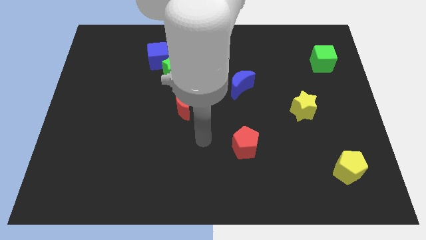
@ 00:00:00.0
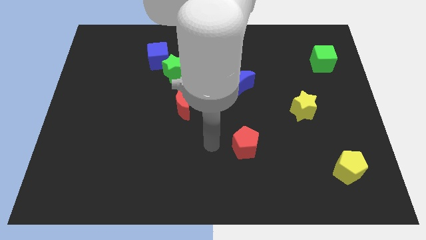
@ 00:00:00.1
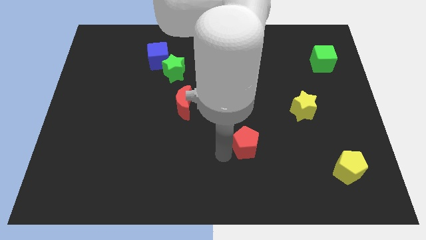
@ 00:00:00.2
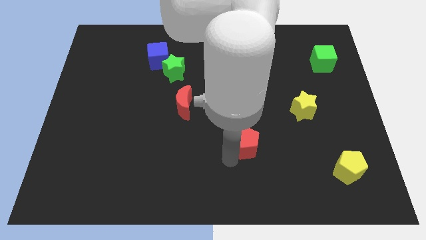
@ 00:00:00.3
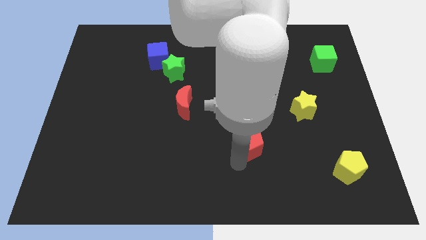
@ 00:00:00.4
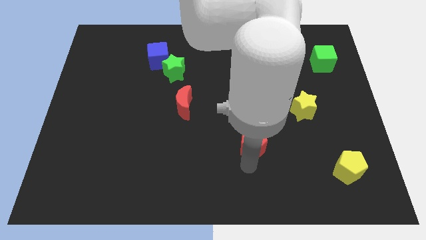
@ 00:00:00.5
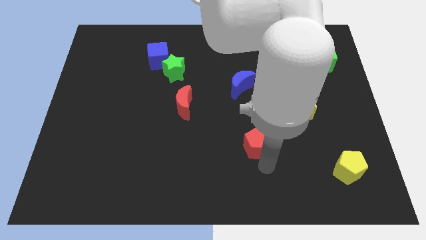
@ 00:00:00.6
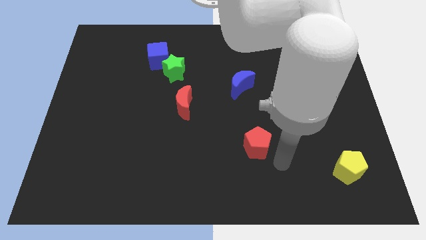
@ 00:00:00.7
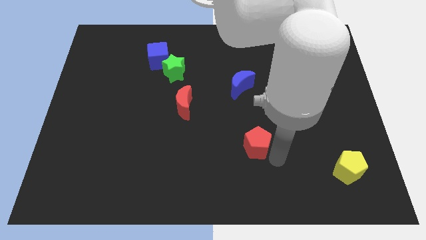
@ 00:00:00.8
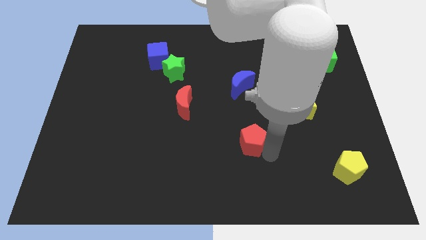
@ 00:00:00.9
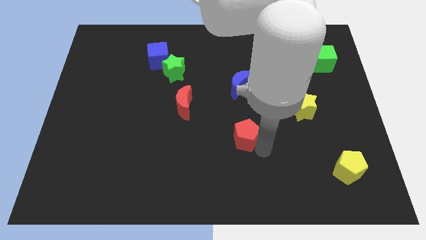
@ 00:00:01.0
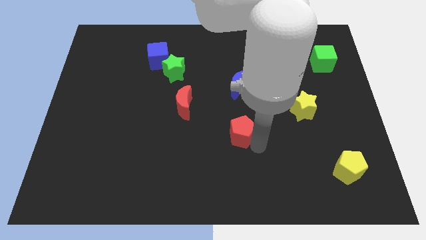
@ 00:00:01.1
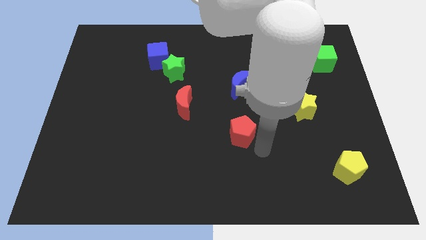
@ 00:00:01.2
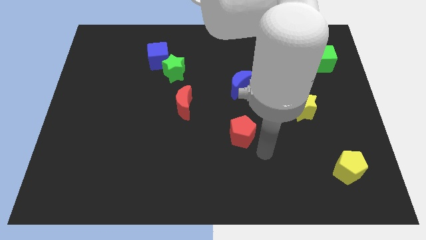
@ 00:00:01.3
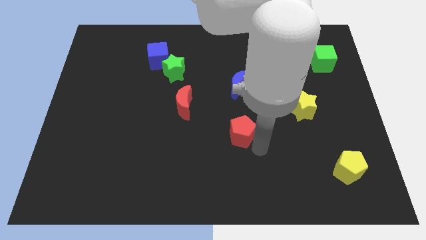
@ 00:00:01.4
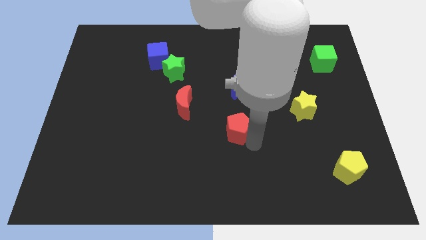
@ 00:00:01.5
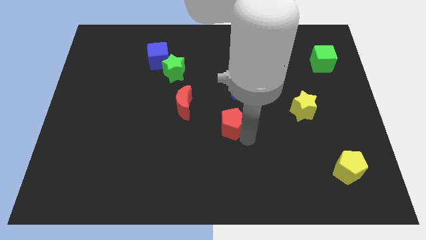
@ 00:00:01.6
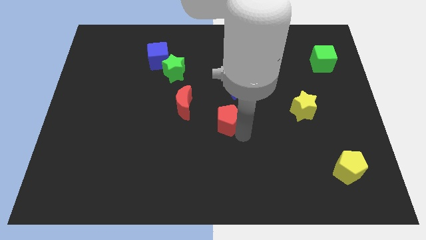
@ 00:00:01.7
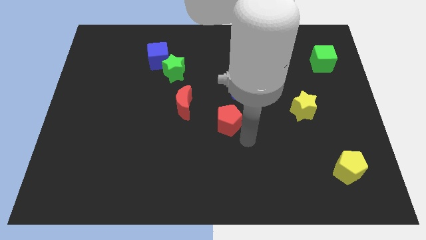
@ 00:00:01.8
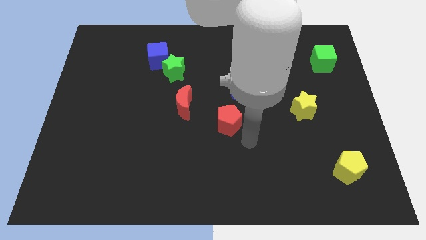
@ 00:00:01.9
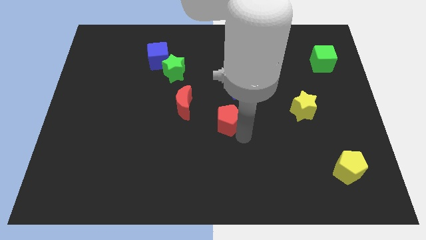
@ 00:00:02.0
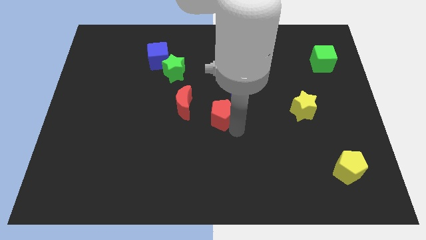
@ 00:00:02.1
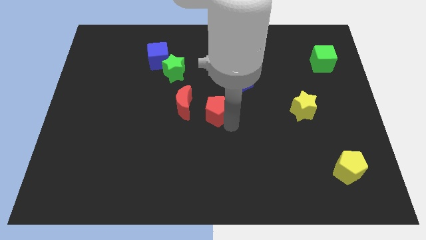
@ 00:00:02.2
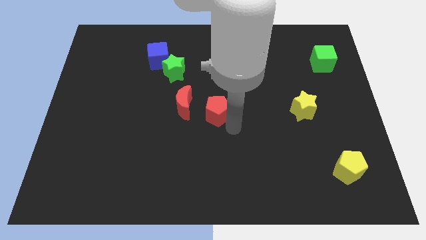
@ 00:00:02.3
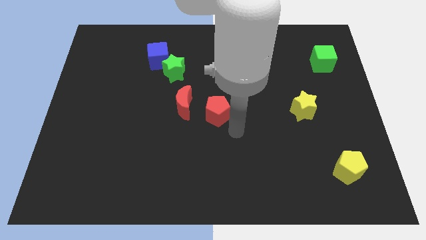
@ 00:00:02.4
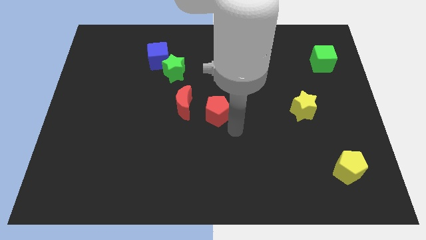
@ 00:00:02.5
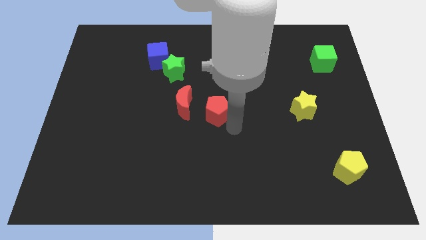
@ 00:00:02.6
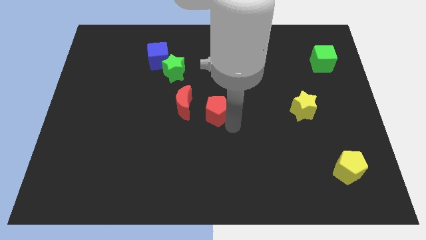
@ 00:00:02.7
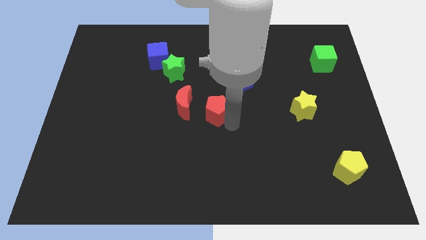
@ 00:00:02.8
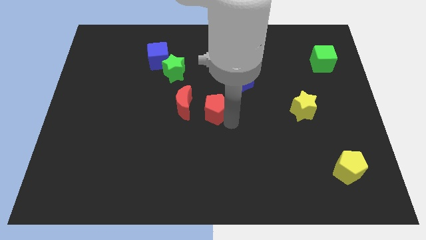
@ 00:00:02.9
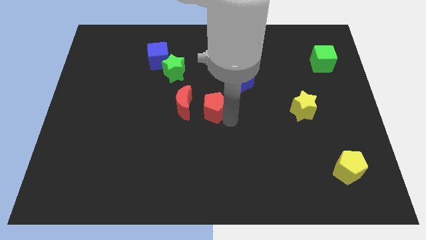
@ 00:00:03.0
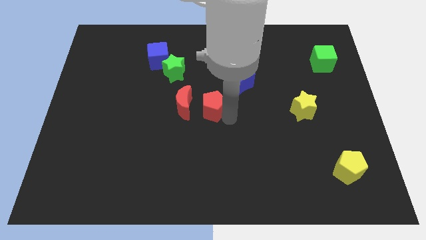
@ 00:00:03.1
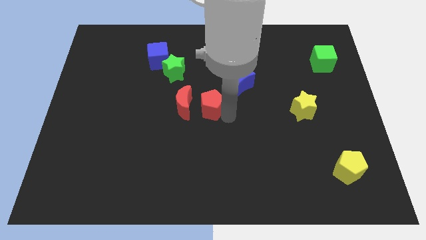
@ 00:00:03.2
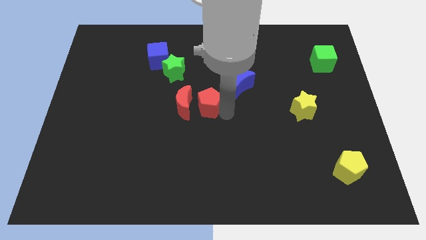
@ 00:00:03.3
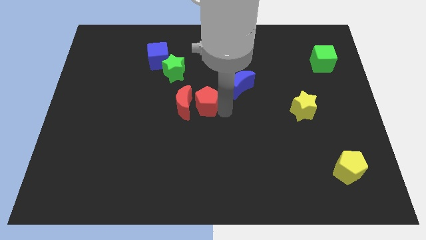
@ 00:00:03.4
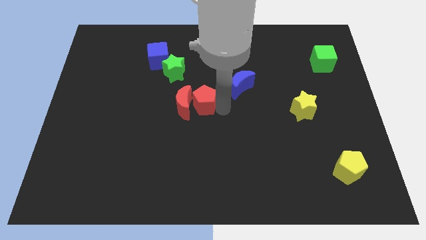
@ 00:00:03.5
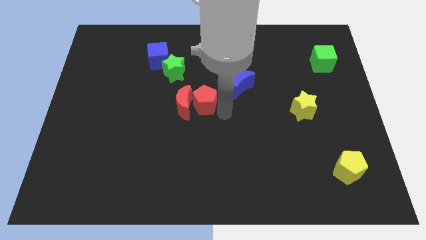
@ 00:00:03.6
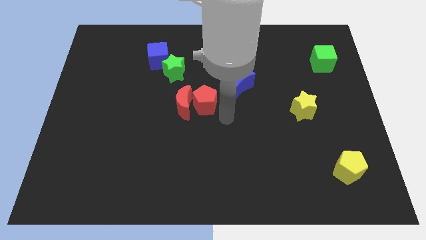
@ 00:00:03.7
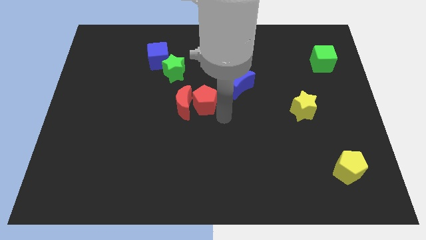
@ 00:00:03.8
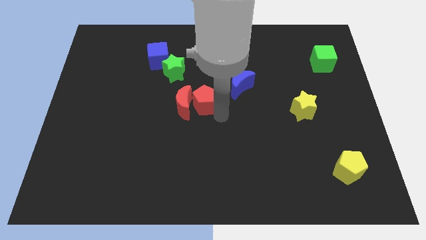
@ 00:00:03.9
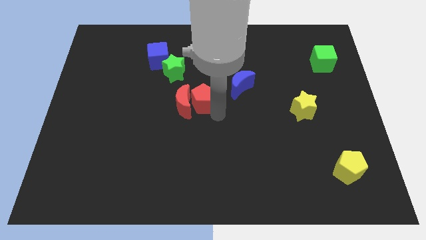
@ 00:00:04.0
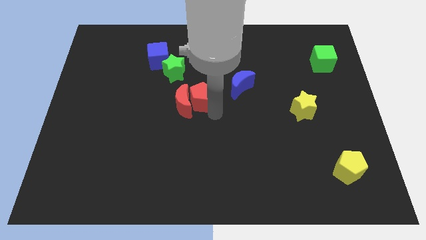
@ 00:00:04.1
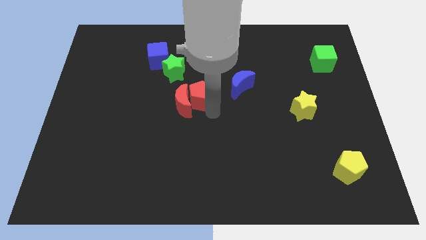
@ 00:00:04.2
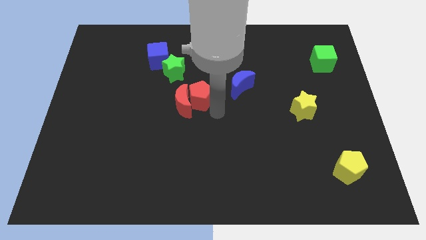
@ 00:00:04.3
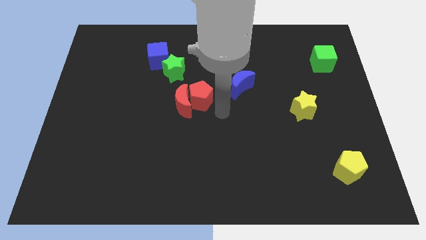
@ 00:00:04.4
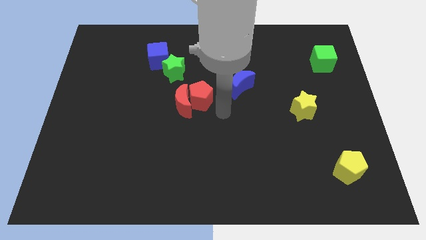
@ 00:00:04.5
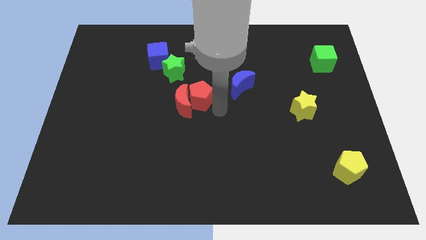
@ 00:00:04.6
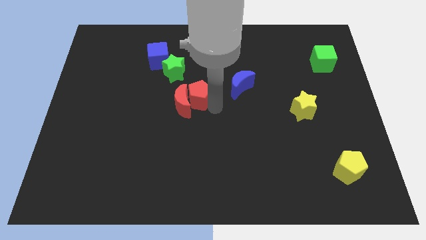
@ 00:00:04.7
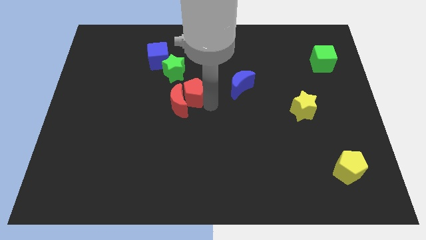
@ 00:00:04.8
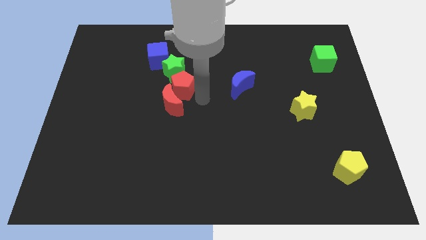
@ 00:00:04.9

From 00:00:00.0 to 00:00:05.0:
slide the red pentagon upwards and then to the left

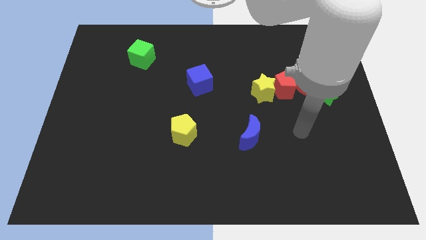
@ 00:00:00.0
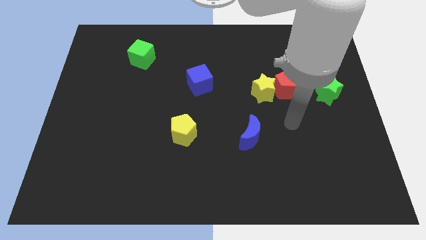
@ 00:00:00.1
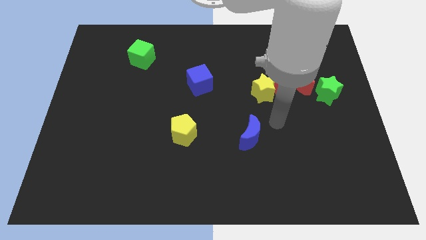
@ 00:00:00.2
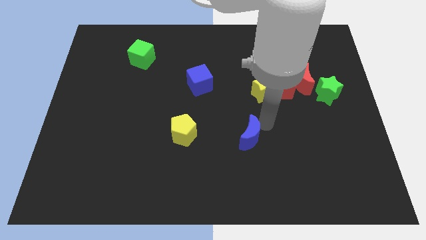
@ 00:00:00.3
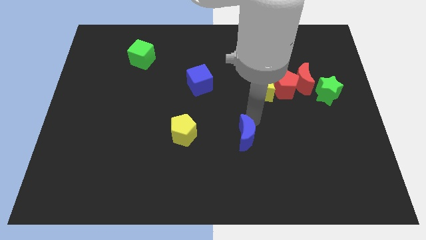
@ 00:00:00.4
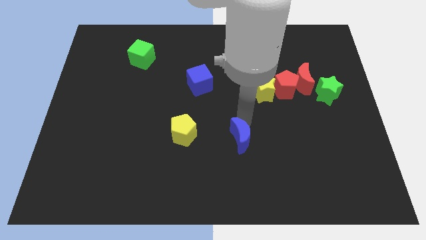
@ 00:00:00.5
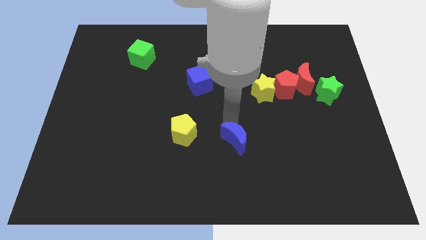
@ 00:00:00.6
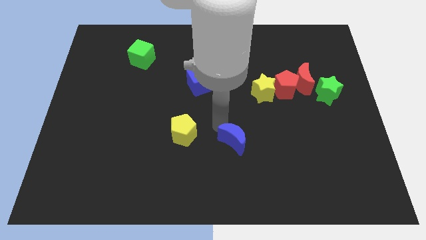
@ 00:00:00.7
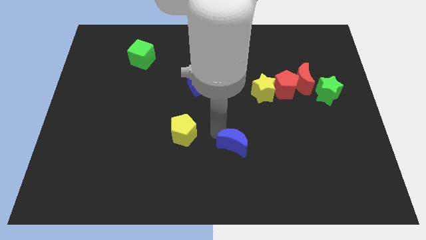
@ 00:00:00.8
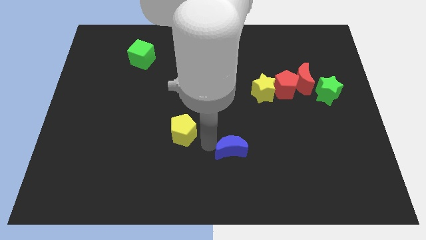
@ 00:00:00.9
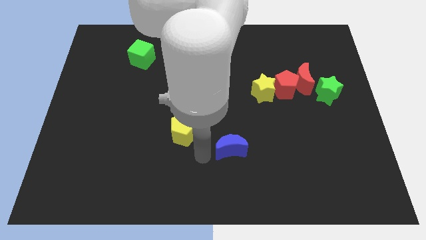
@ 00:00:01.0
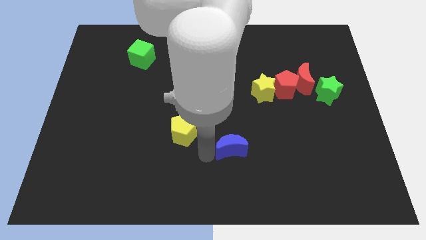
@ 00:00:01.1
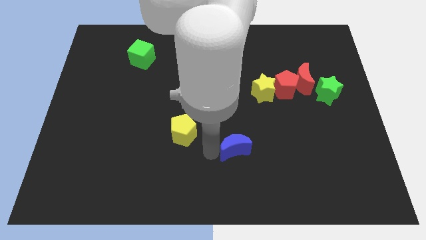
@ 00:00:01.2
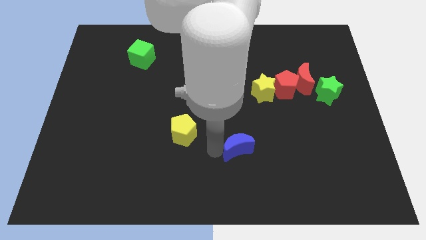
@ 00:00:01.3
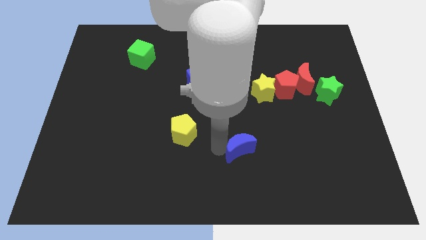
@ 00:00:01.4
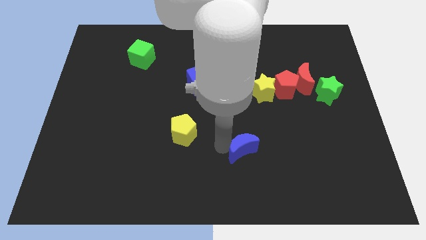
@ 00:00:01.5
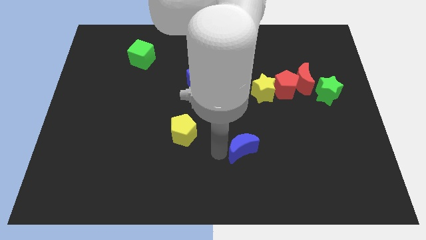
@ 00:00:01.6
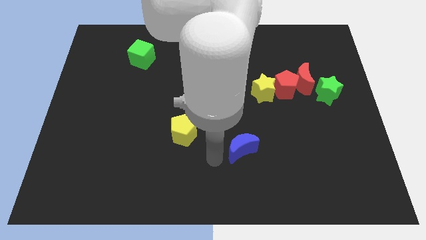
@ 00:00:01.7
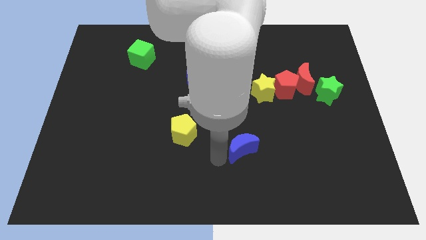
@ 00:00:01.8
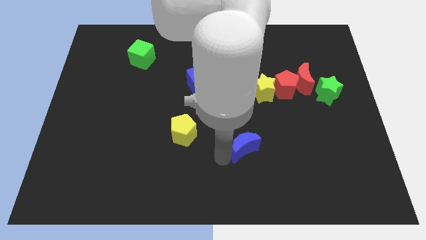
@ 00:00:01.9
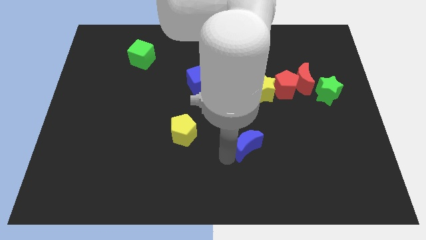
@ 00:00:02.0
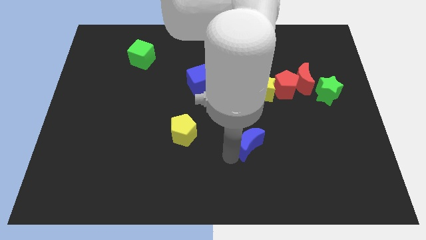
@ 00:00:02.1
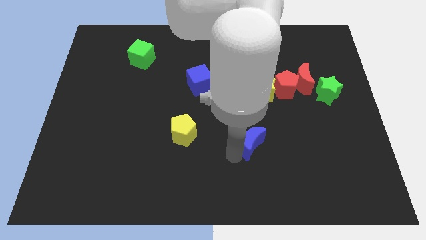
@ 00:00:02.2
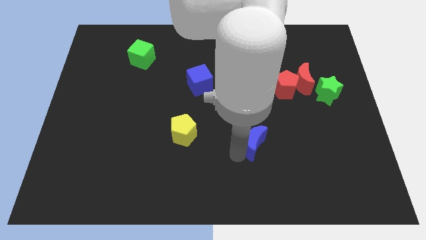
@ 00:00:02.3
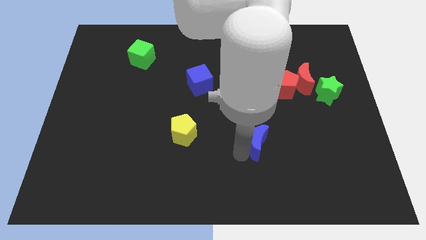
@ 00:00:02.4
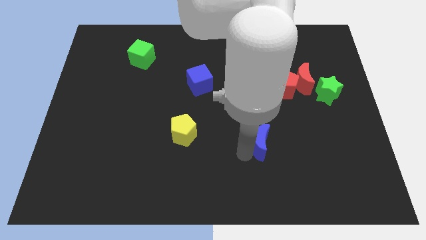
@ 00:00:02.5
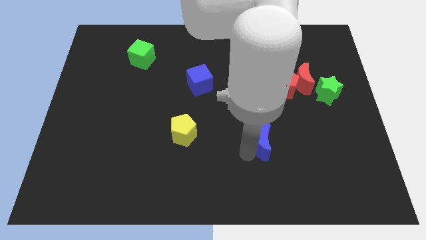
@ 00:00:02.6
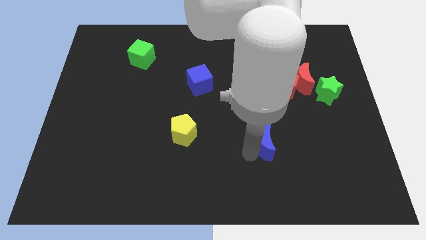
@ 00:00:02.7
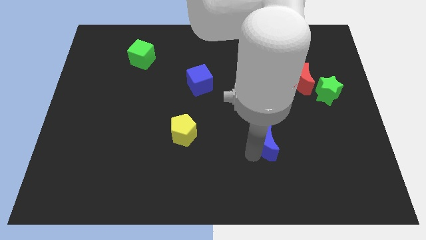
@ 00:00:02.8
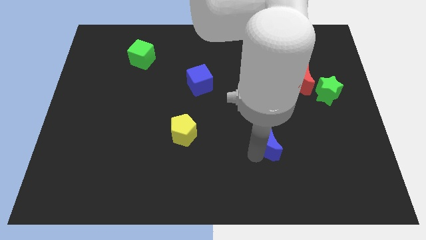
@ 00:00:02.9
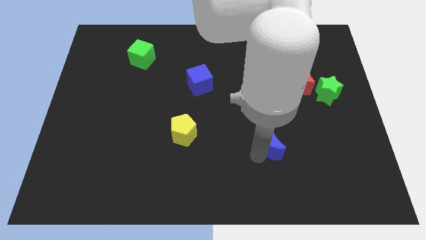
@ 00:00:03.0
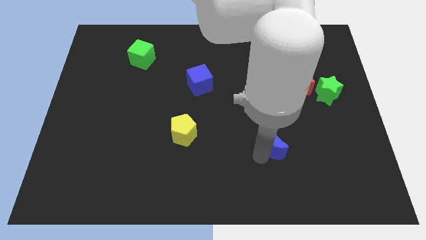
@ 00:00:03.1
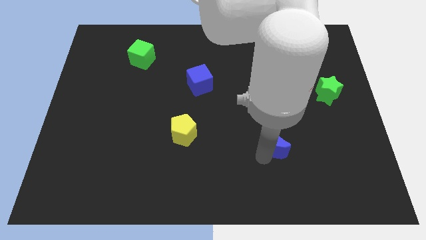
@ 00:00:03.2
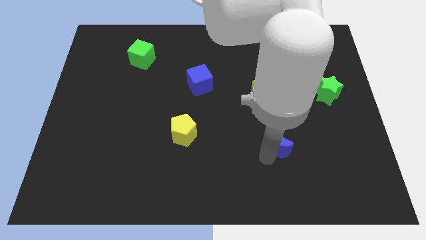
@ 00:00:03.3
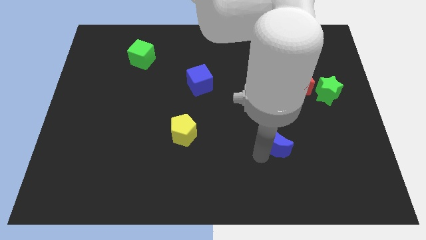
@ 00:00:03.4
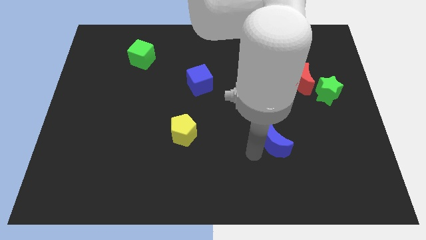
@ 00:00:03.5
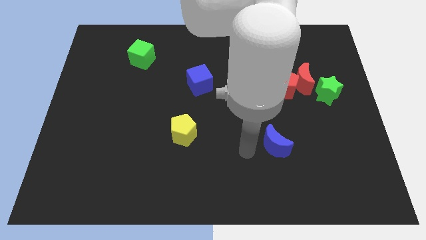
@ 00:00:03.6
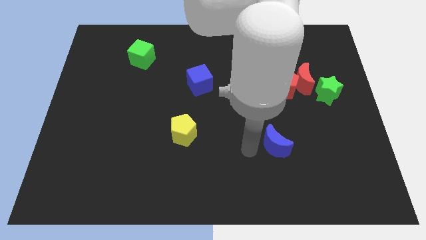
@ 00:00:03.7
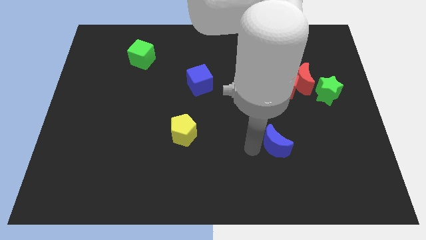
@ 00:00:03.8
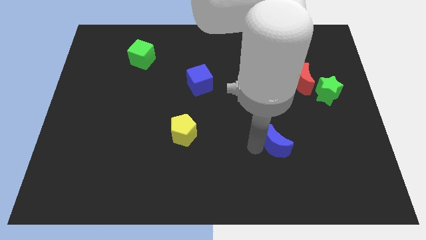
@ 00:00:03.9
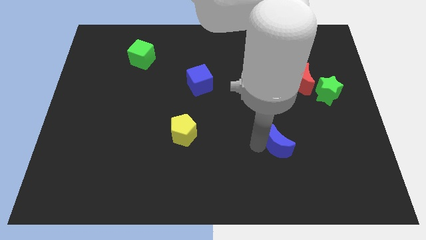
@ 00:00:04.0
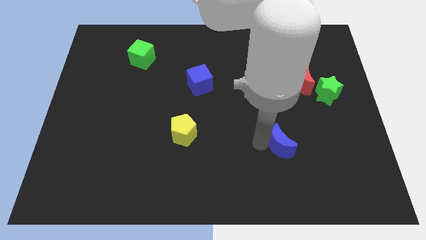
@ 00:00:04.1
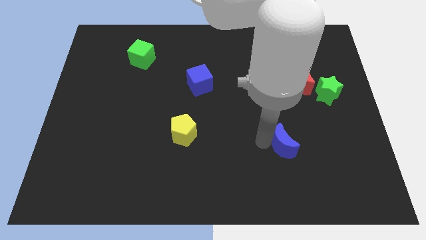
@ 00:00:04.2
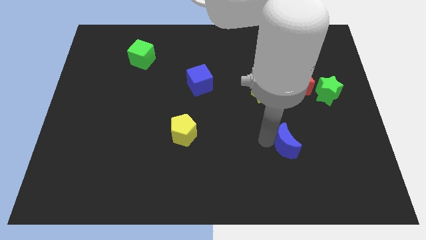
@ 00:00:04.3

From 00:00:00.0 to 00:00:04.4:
slide the blue moon to the right slightly
